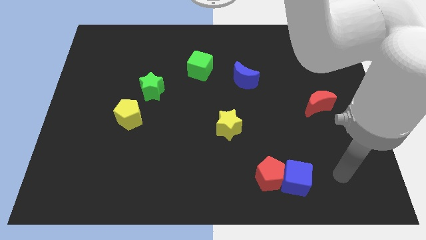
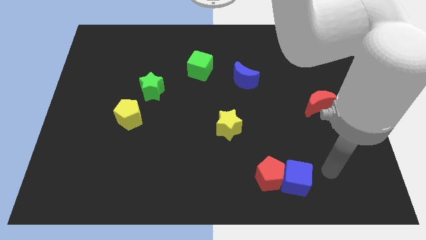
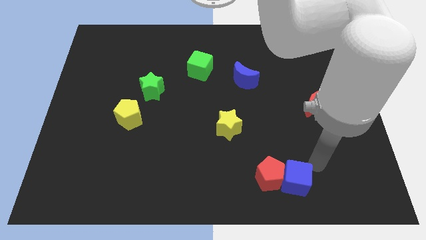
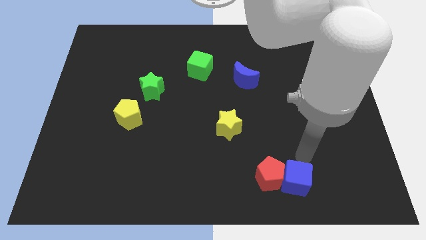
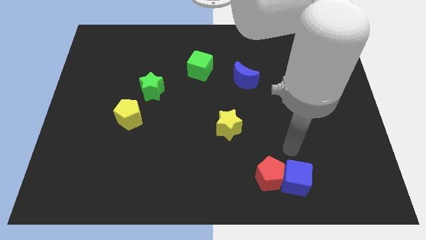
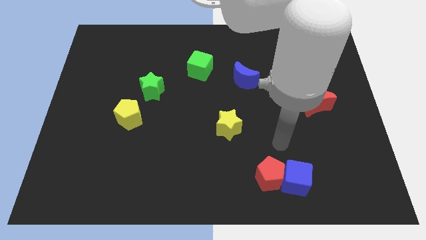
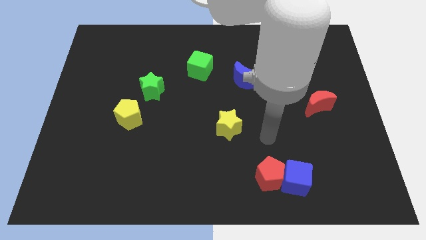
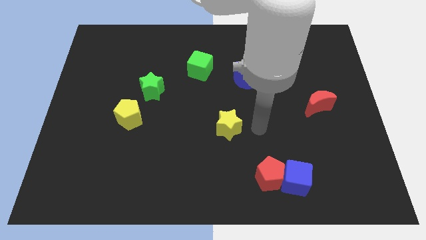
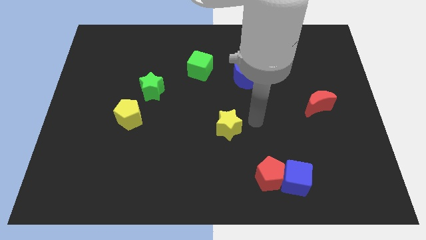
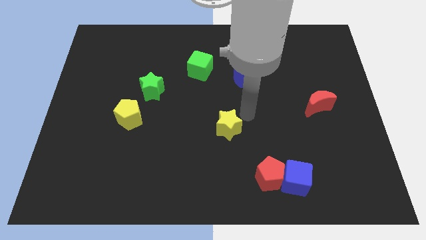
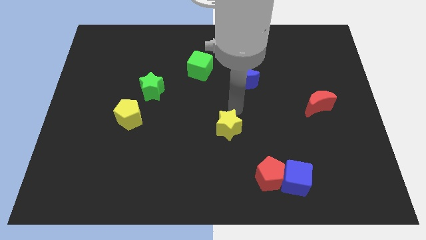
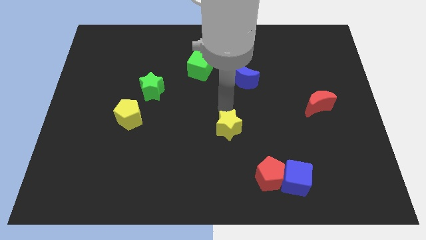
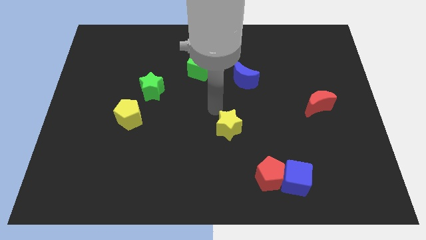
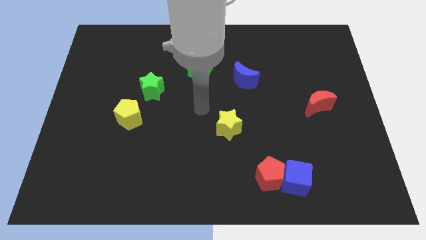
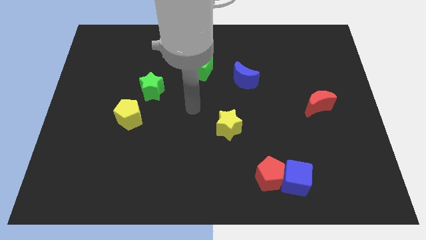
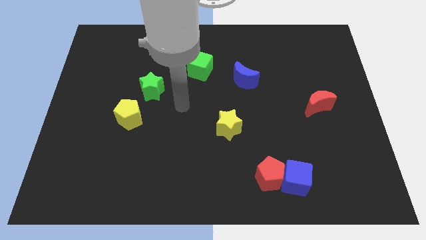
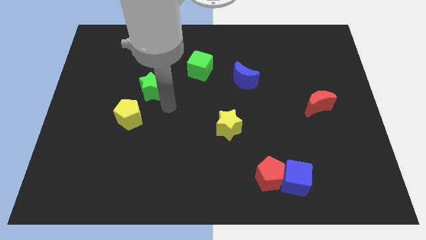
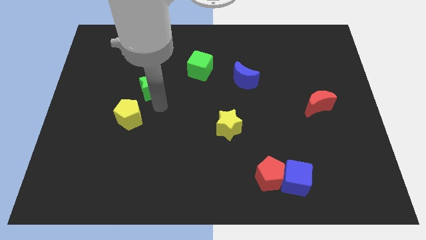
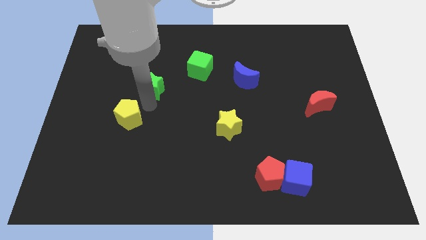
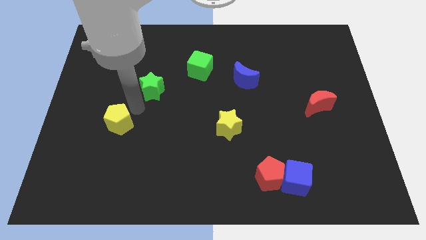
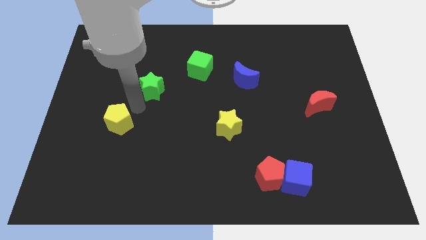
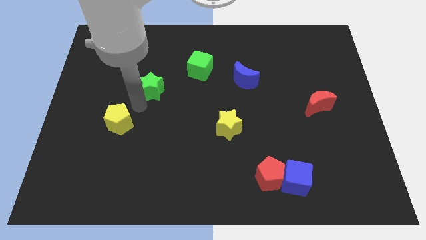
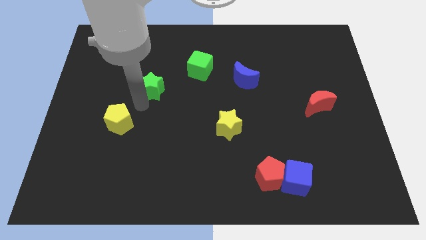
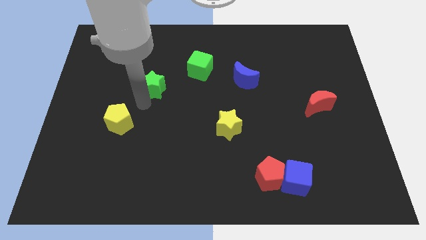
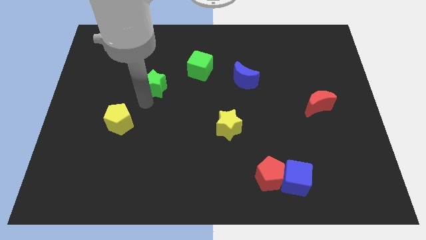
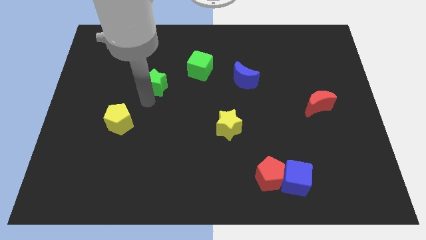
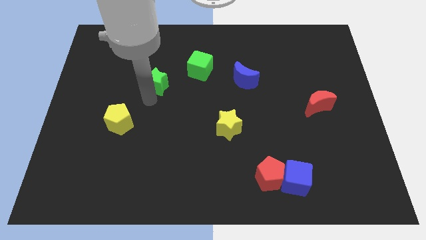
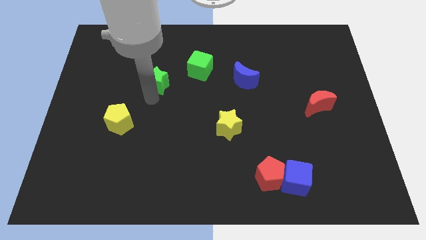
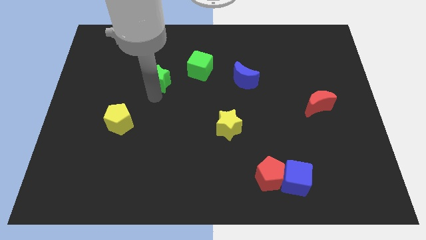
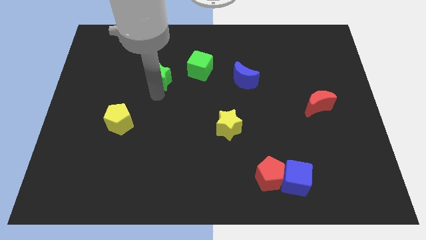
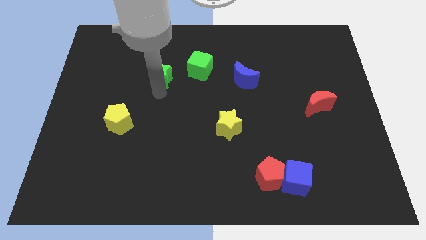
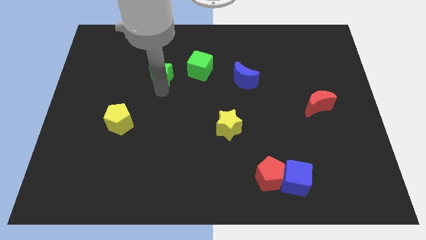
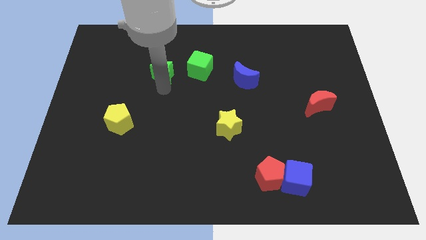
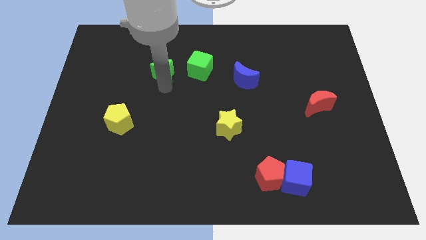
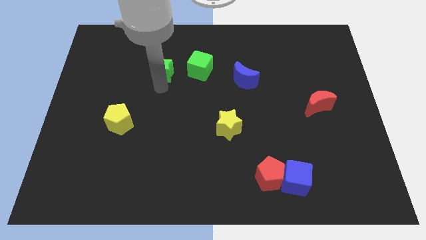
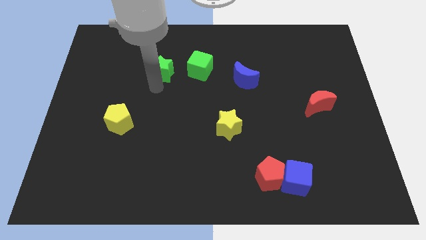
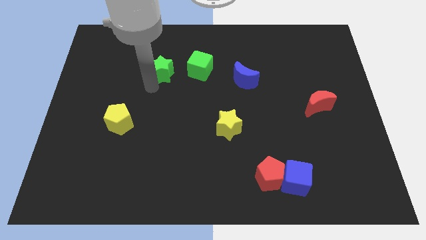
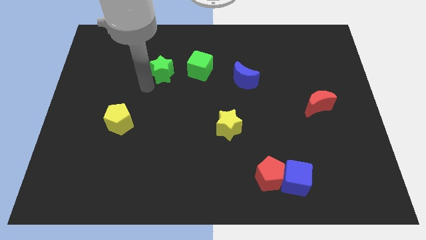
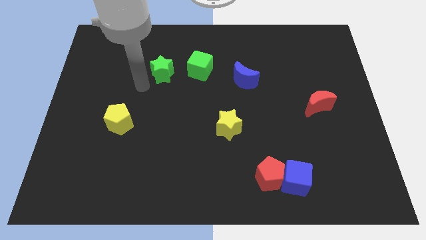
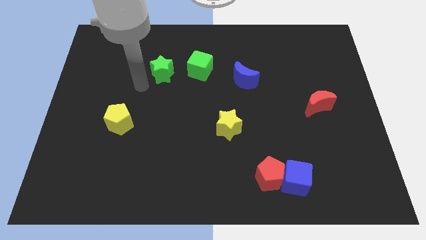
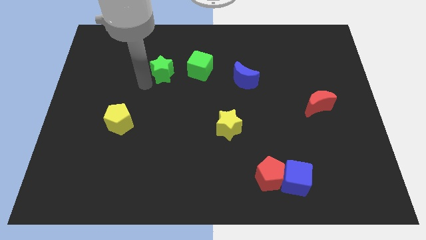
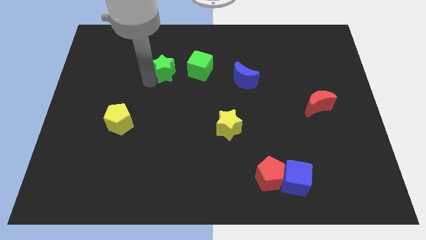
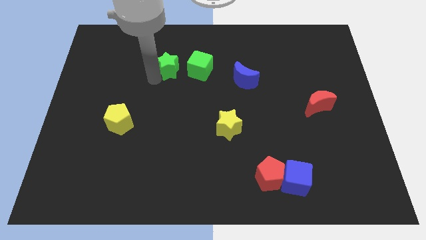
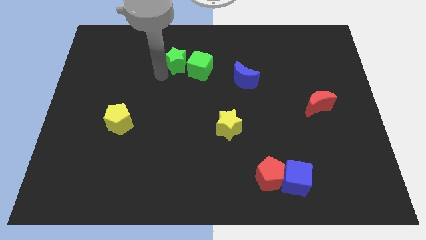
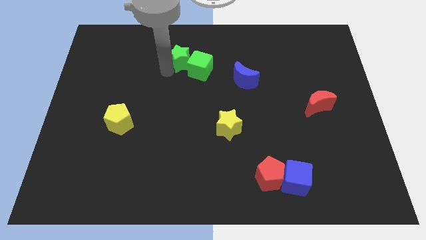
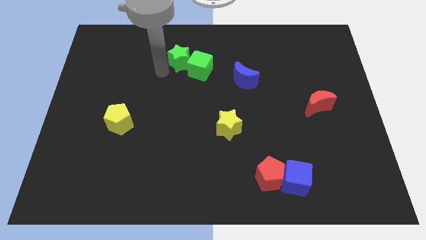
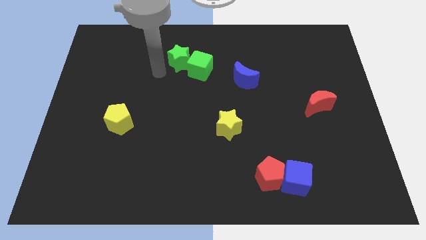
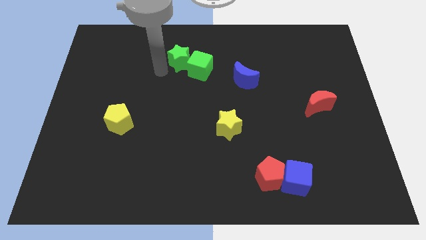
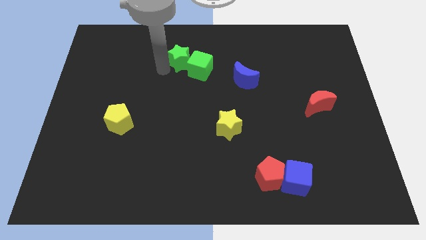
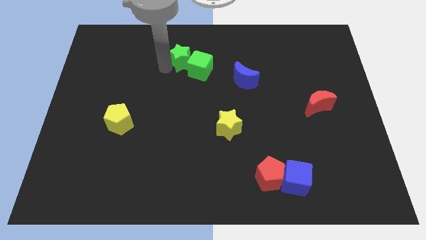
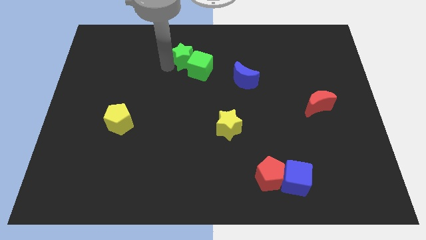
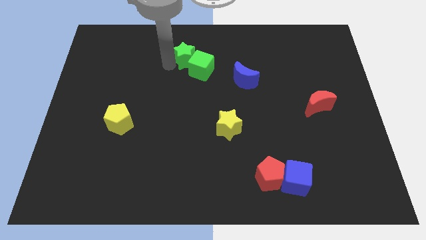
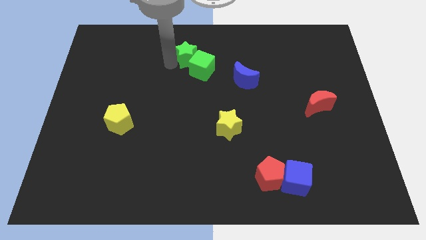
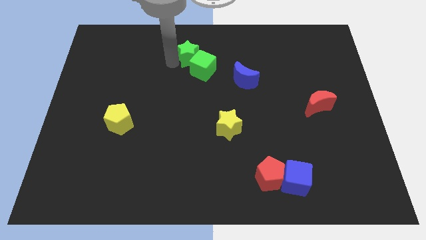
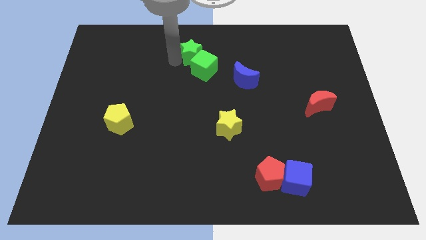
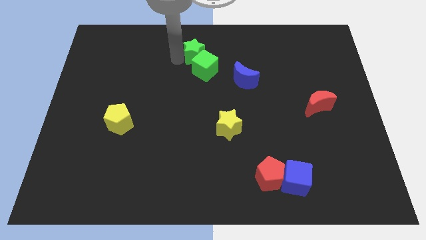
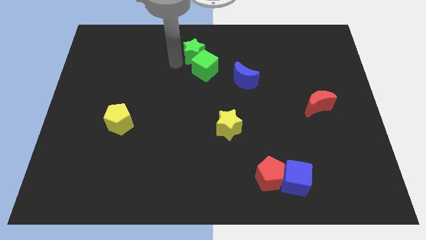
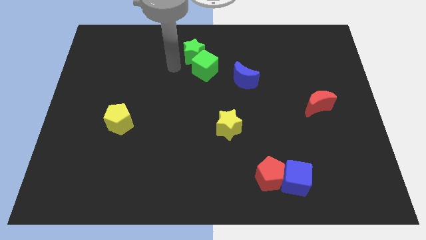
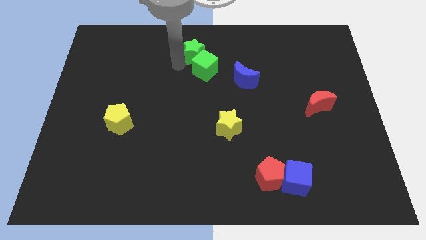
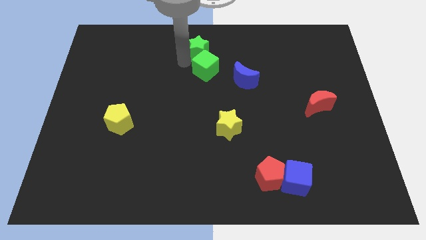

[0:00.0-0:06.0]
move the green star to the towards your base
